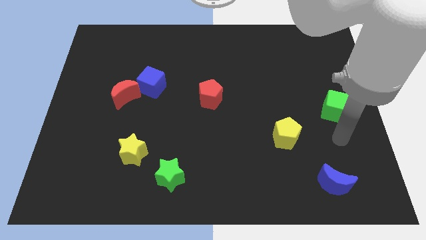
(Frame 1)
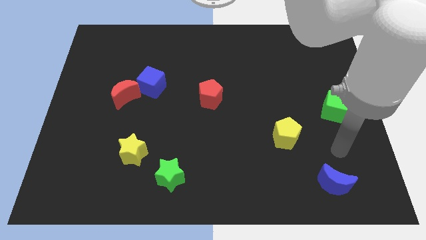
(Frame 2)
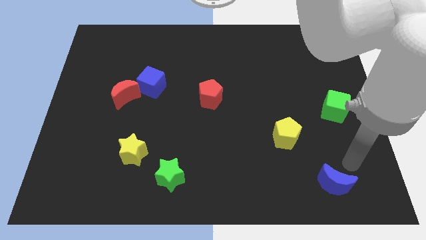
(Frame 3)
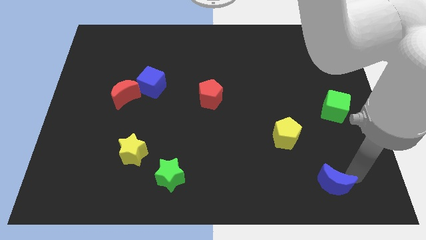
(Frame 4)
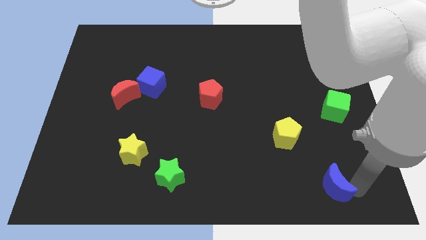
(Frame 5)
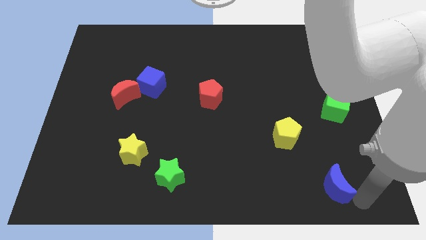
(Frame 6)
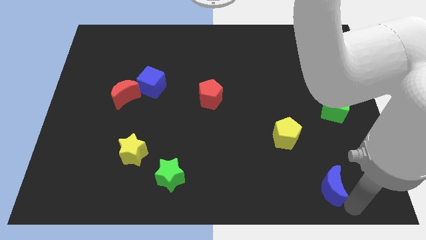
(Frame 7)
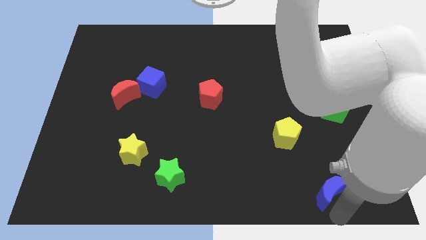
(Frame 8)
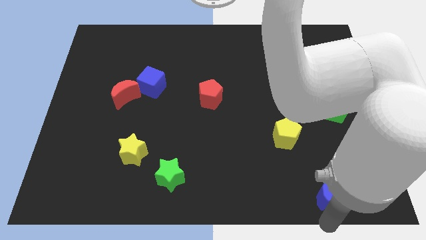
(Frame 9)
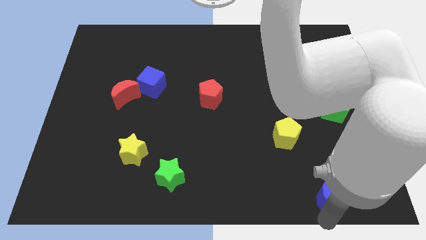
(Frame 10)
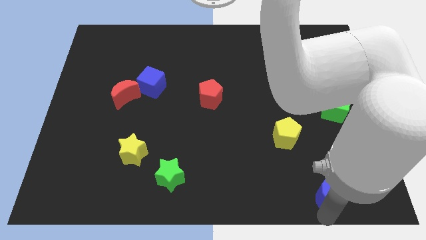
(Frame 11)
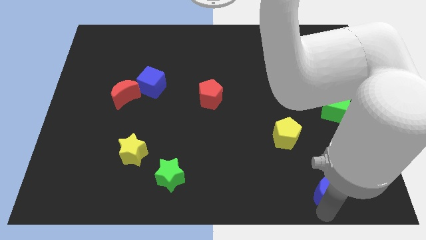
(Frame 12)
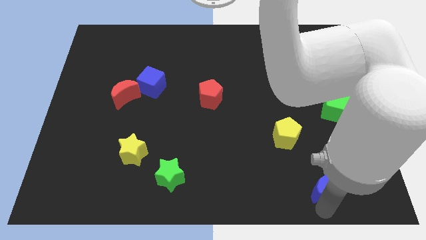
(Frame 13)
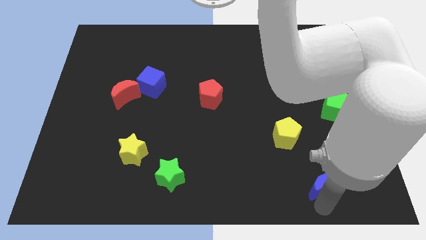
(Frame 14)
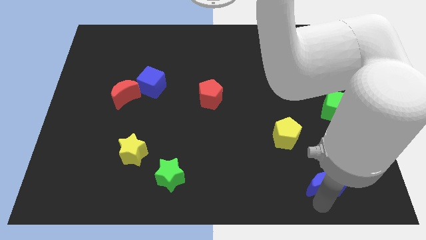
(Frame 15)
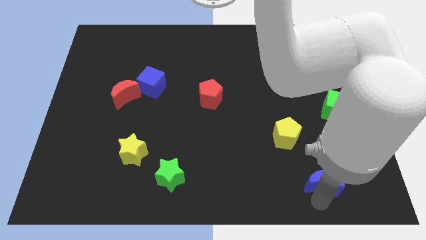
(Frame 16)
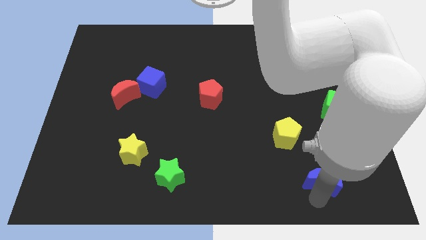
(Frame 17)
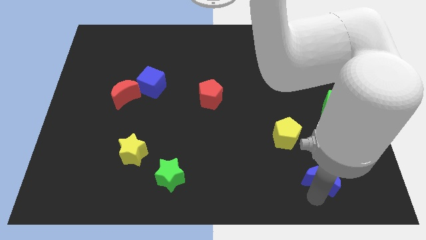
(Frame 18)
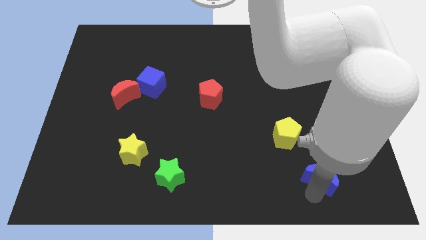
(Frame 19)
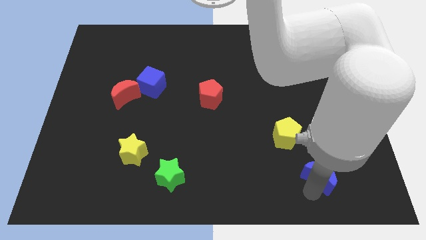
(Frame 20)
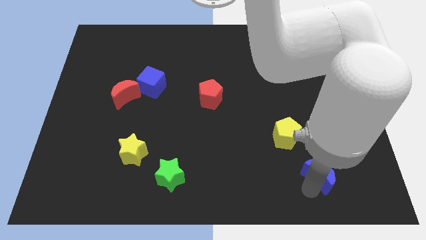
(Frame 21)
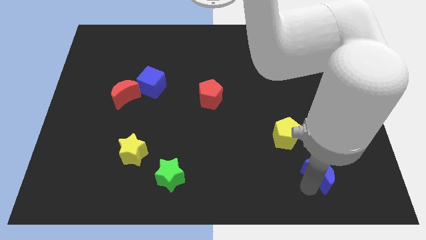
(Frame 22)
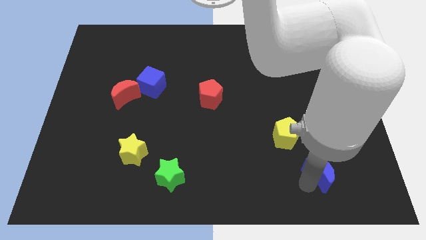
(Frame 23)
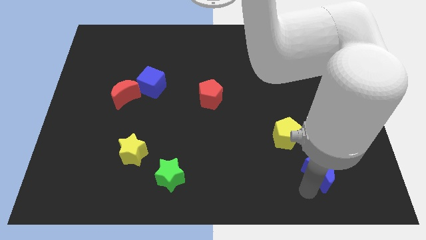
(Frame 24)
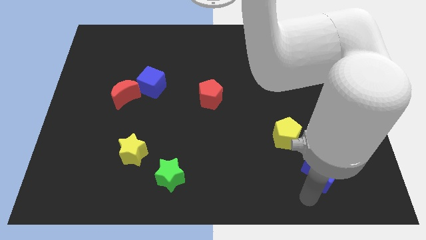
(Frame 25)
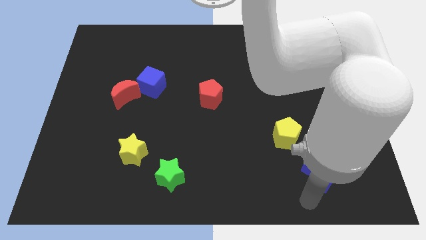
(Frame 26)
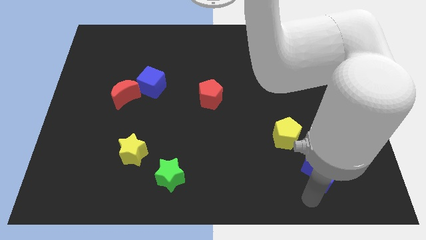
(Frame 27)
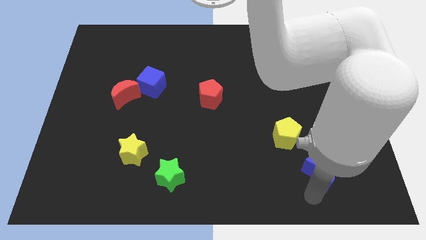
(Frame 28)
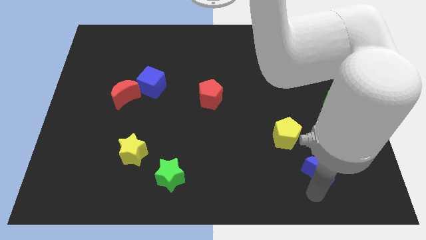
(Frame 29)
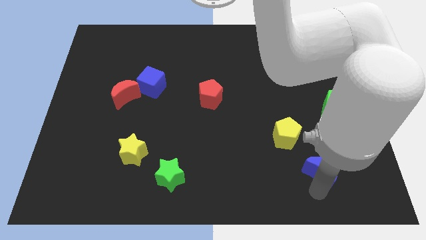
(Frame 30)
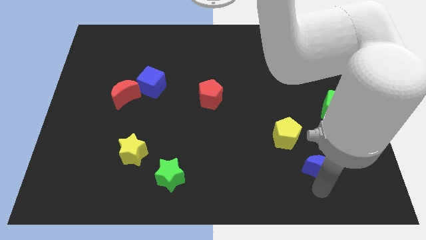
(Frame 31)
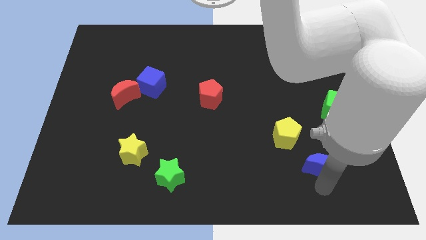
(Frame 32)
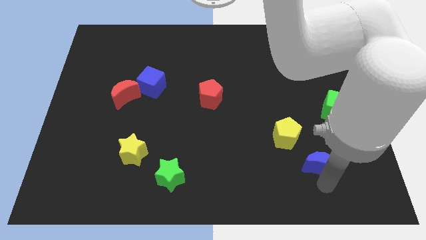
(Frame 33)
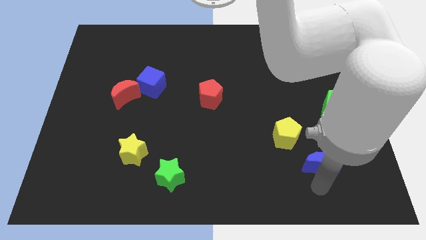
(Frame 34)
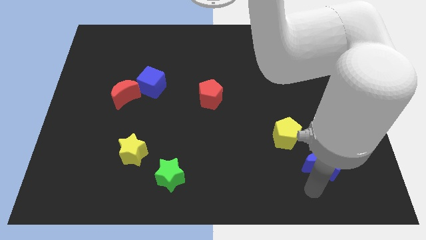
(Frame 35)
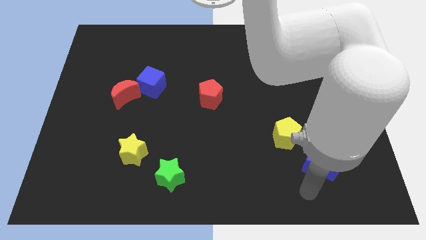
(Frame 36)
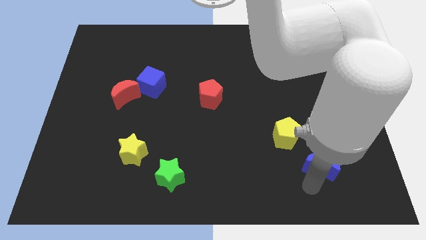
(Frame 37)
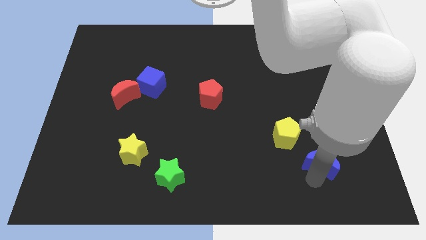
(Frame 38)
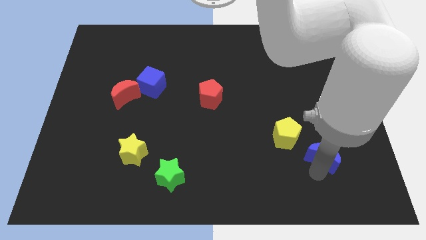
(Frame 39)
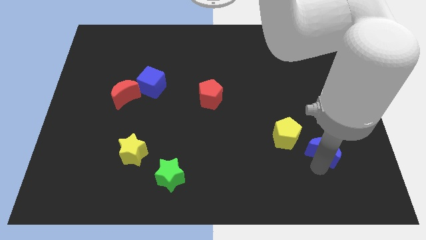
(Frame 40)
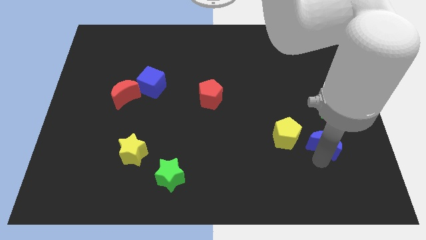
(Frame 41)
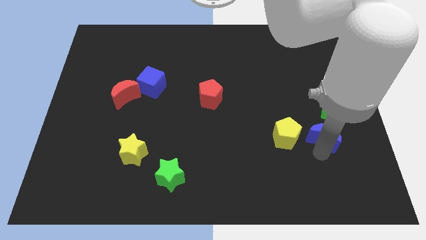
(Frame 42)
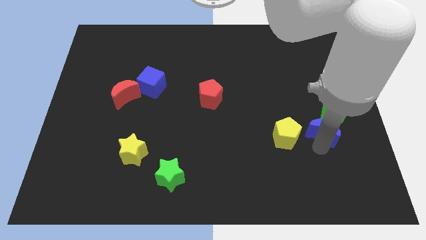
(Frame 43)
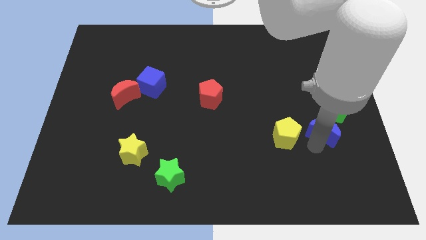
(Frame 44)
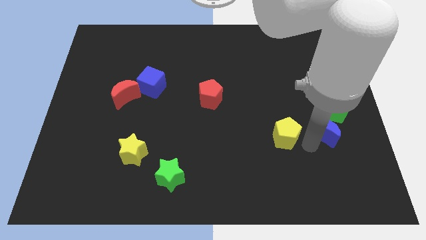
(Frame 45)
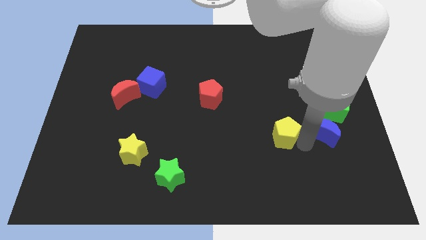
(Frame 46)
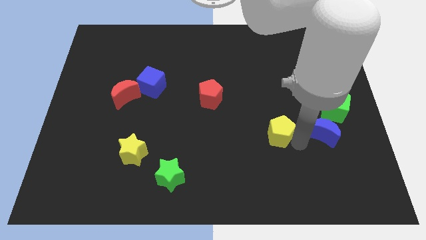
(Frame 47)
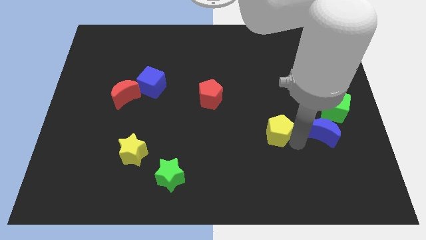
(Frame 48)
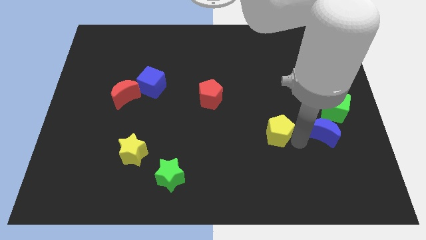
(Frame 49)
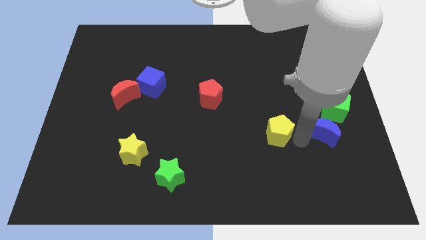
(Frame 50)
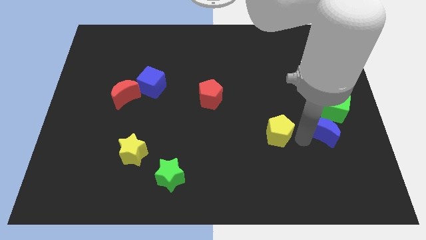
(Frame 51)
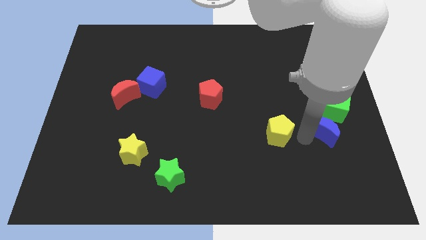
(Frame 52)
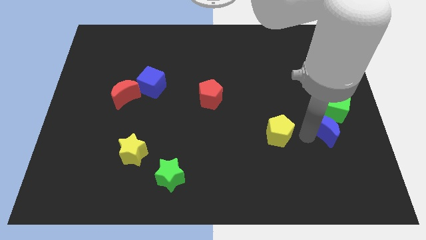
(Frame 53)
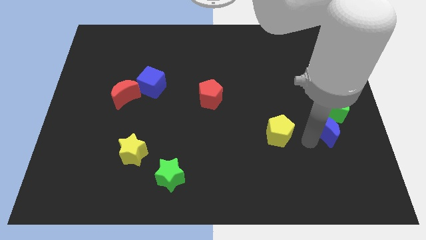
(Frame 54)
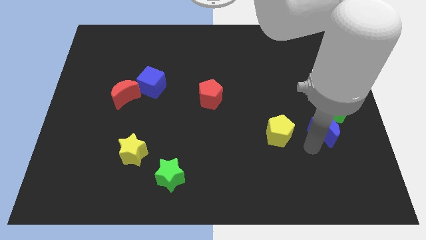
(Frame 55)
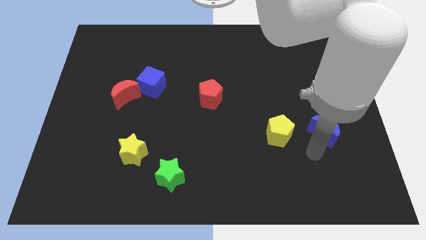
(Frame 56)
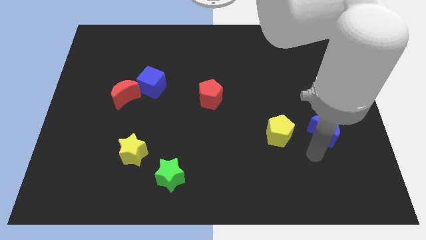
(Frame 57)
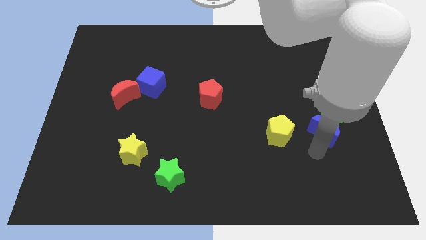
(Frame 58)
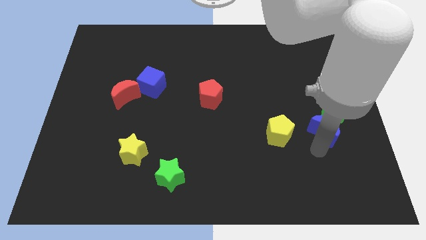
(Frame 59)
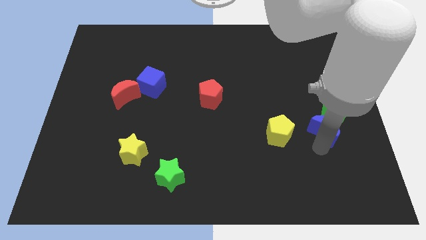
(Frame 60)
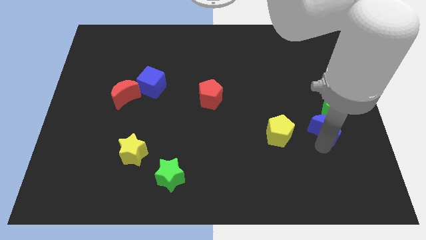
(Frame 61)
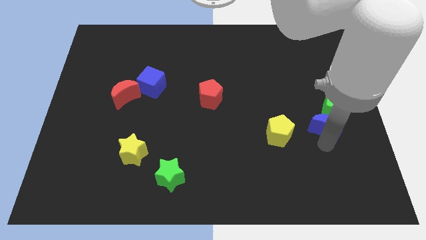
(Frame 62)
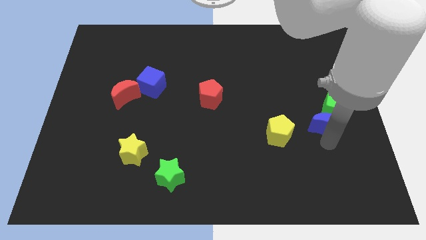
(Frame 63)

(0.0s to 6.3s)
move the blue moon next to the green cube
